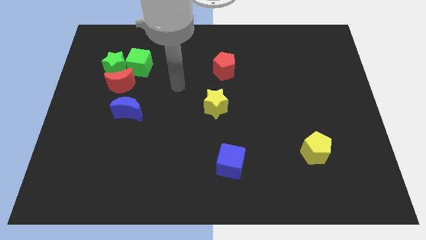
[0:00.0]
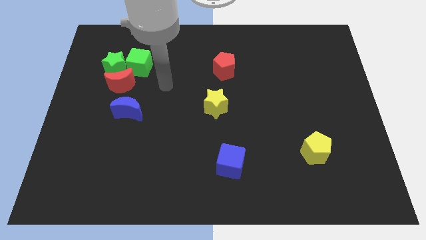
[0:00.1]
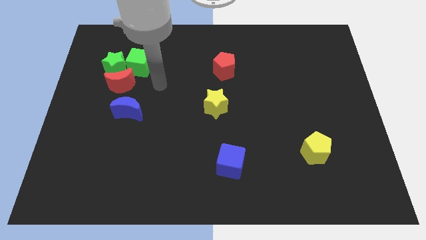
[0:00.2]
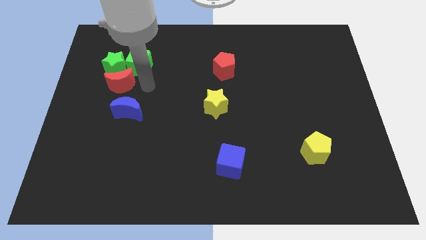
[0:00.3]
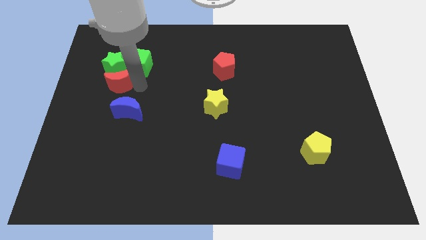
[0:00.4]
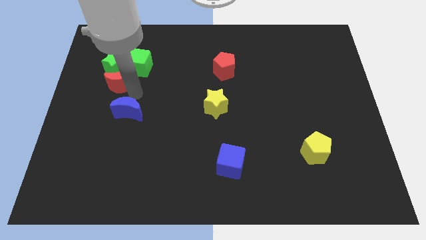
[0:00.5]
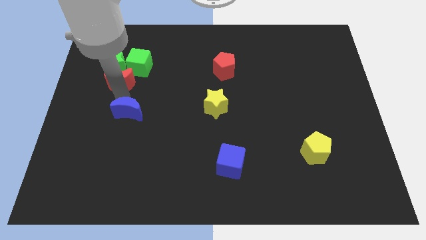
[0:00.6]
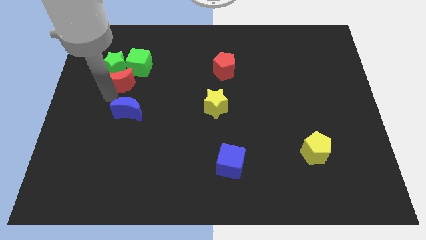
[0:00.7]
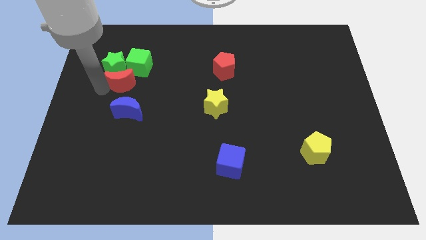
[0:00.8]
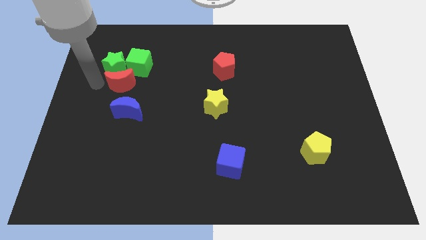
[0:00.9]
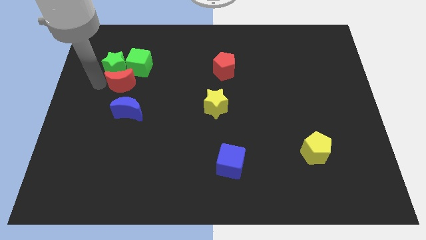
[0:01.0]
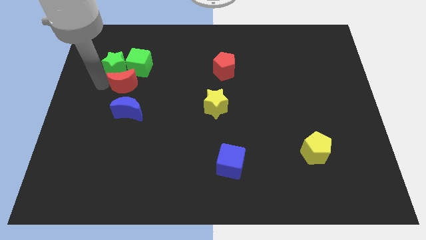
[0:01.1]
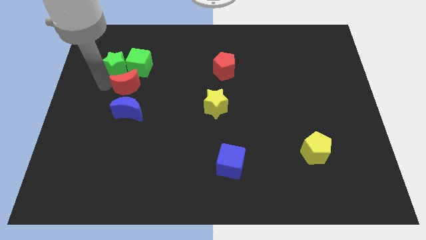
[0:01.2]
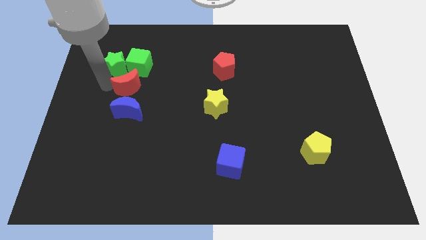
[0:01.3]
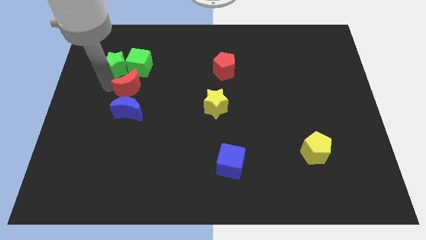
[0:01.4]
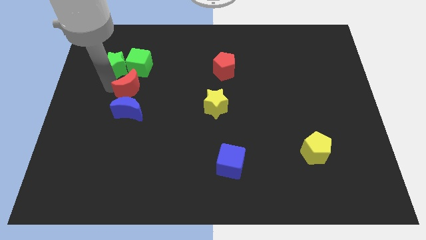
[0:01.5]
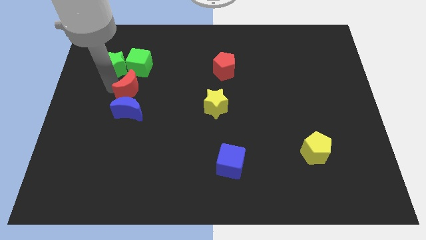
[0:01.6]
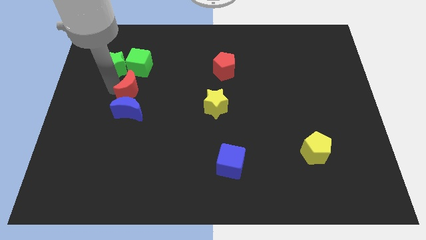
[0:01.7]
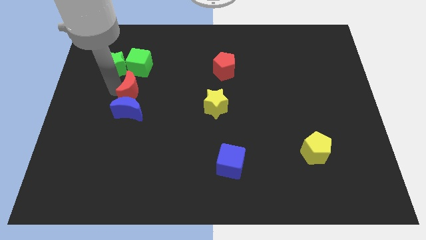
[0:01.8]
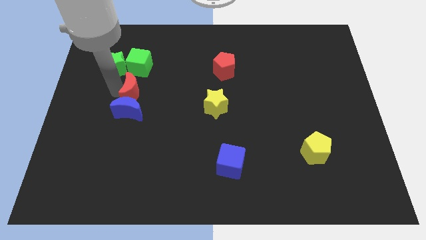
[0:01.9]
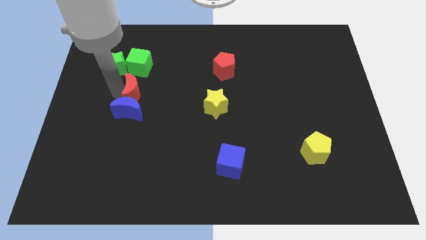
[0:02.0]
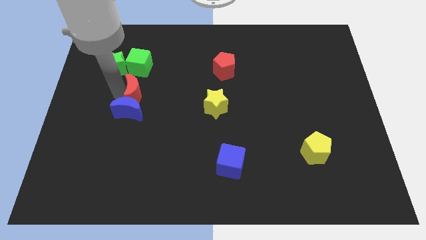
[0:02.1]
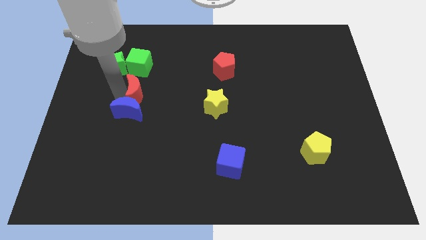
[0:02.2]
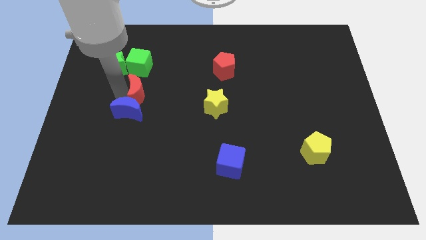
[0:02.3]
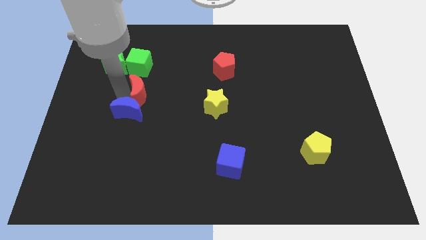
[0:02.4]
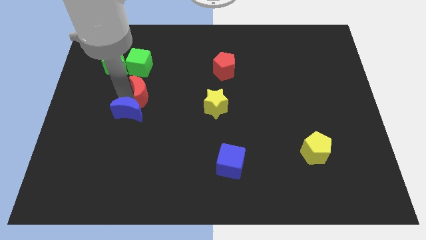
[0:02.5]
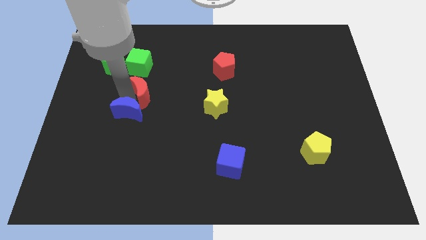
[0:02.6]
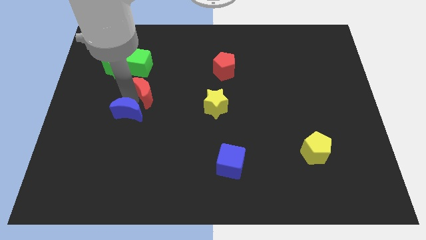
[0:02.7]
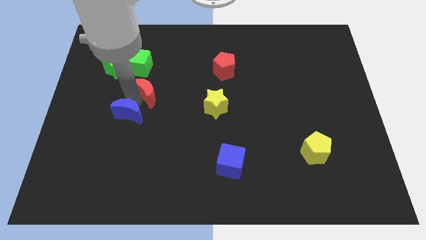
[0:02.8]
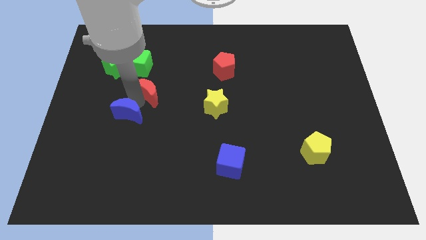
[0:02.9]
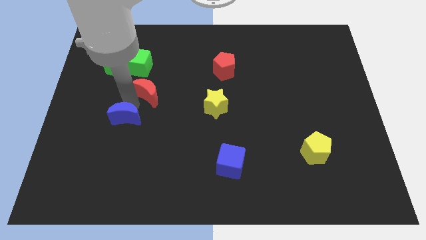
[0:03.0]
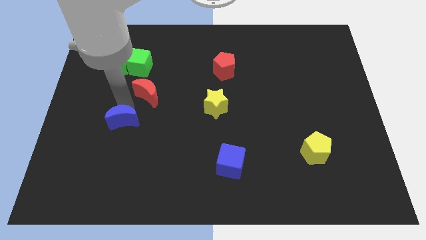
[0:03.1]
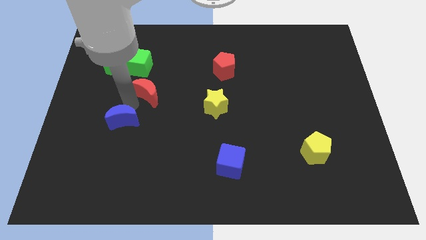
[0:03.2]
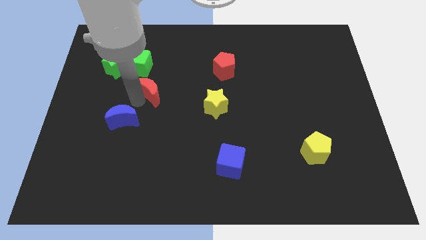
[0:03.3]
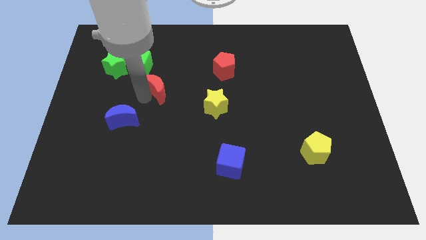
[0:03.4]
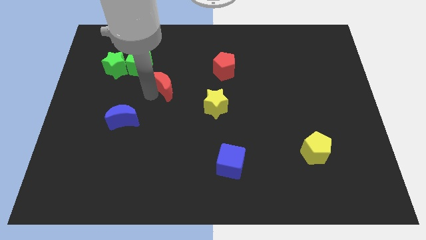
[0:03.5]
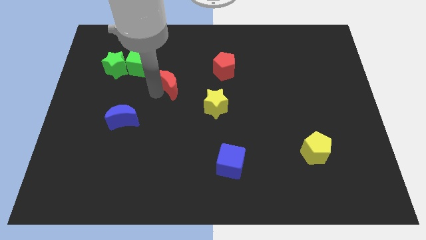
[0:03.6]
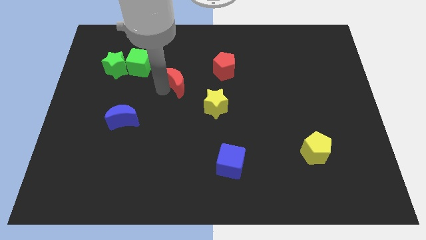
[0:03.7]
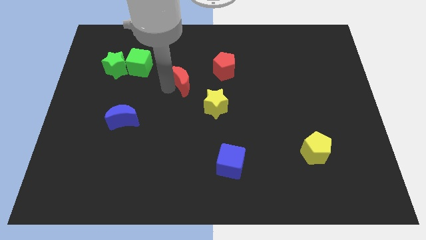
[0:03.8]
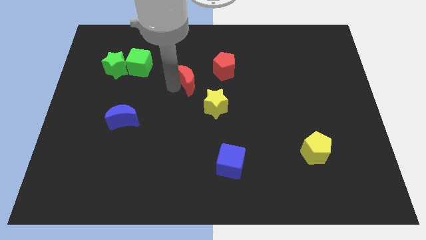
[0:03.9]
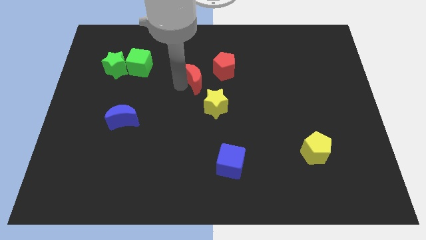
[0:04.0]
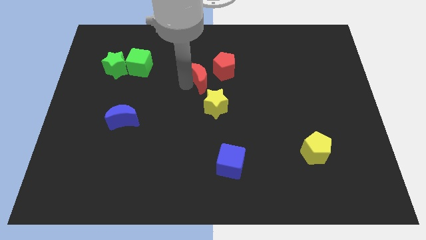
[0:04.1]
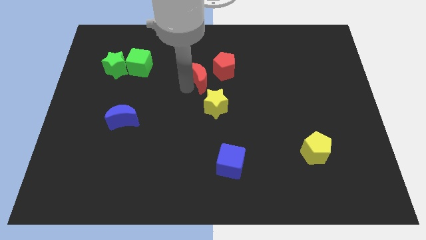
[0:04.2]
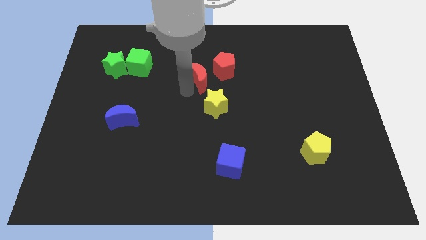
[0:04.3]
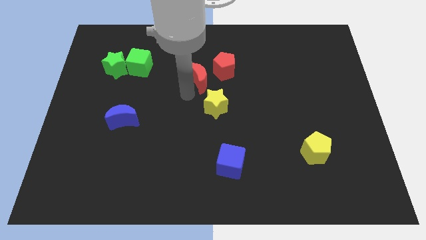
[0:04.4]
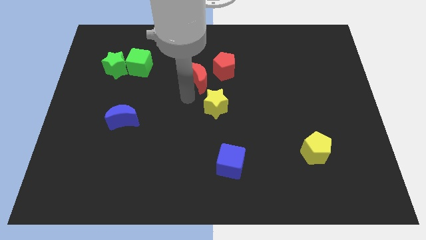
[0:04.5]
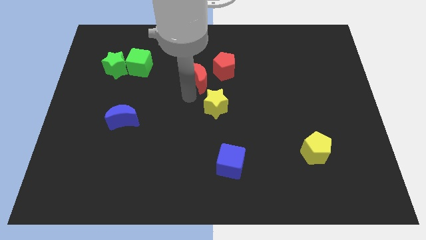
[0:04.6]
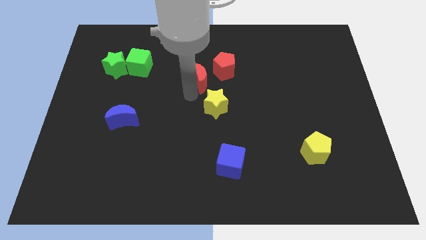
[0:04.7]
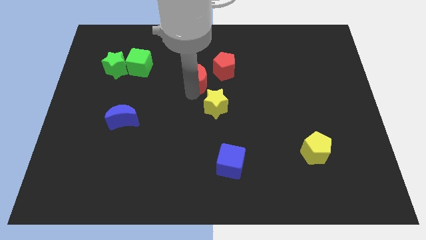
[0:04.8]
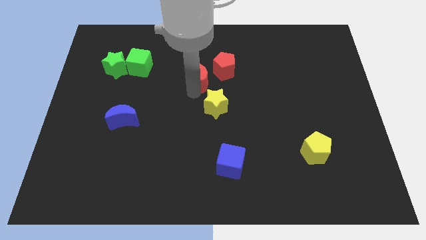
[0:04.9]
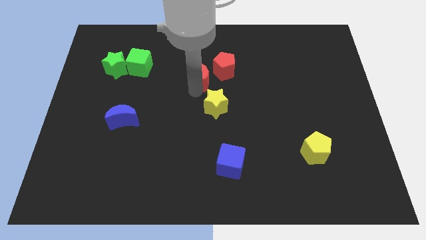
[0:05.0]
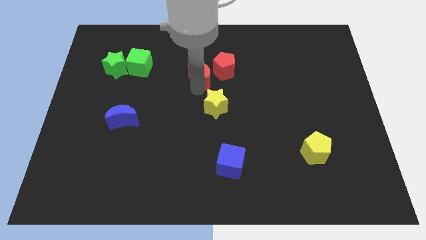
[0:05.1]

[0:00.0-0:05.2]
put the red moon next to the red pentagon

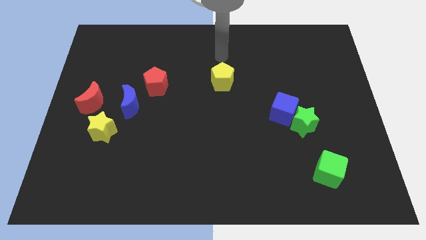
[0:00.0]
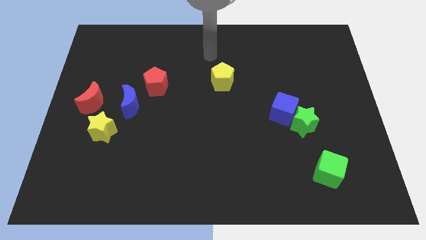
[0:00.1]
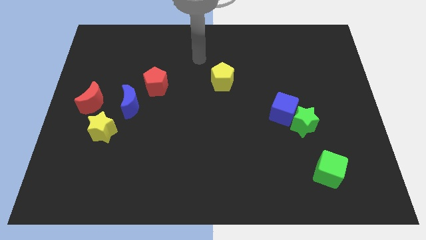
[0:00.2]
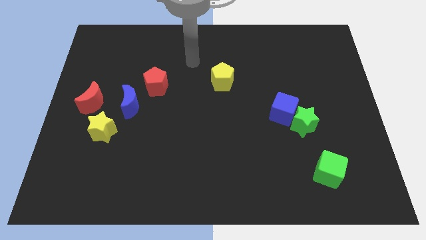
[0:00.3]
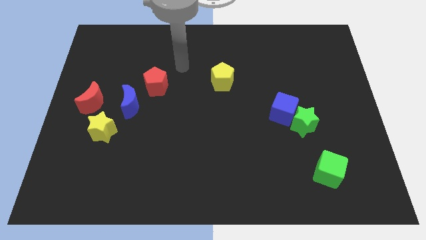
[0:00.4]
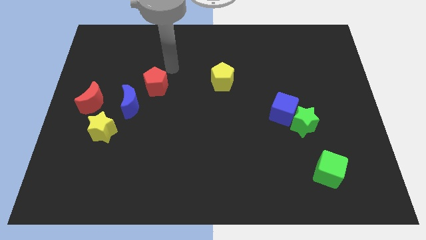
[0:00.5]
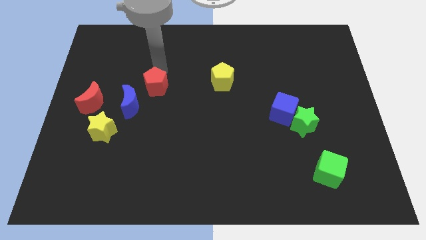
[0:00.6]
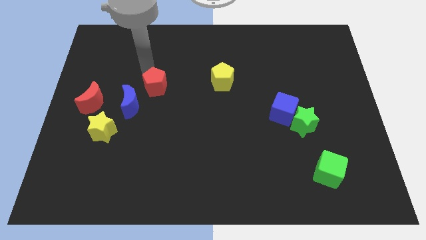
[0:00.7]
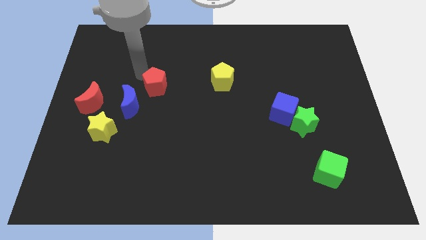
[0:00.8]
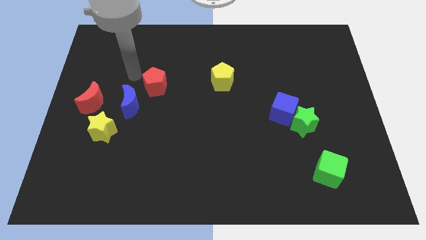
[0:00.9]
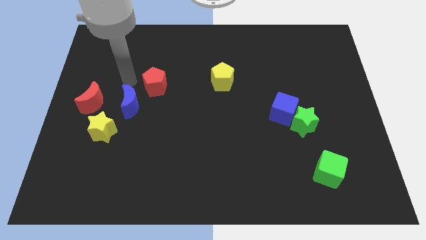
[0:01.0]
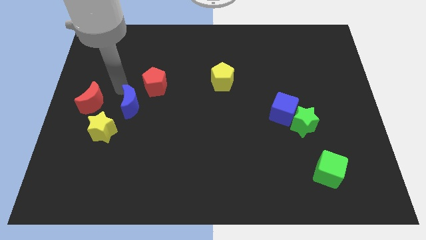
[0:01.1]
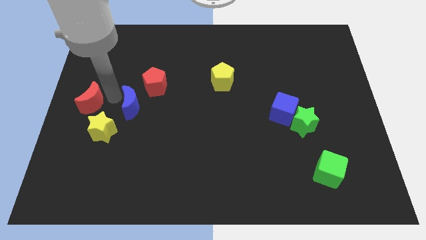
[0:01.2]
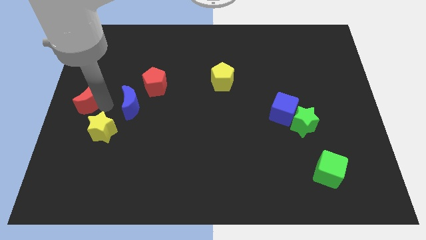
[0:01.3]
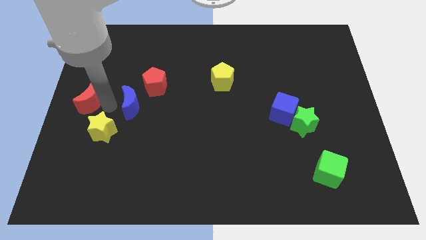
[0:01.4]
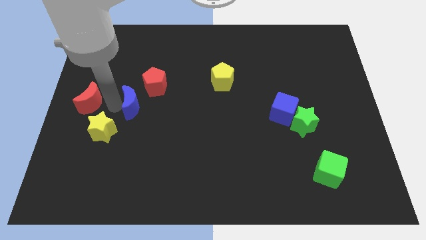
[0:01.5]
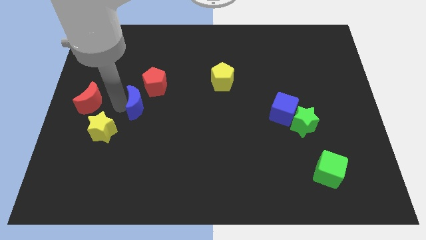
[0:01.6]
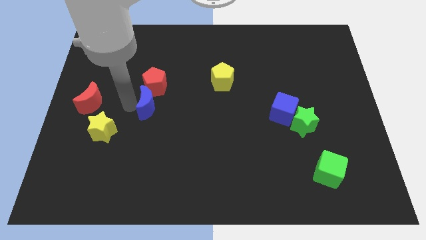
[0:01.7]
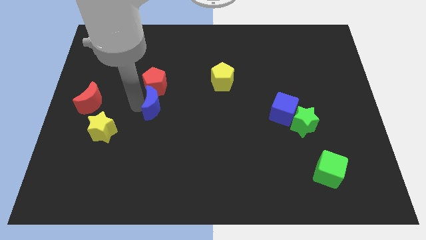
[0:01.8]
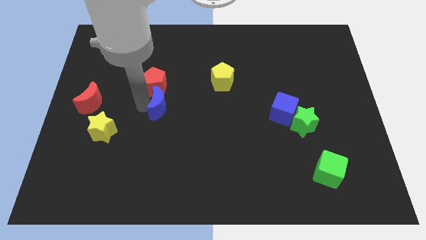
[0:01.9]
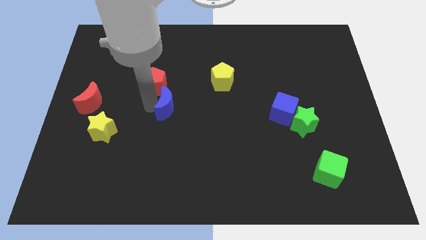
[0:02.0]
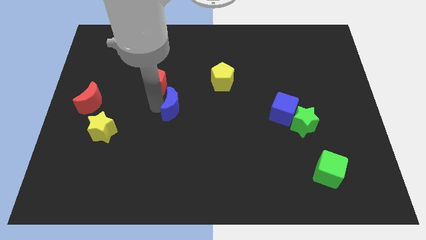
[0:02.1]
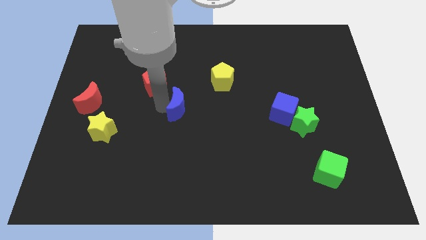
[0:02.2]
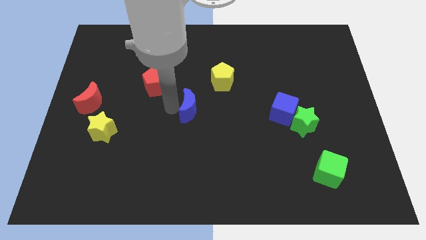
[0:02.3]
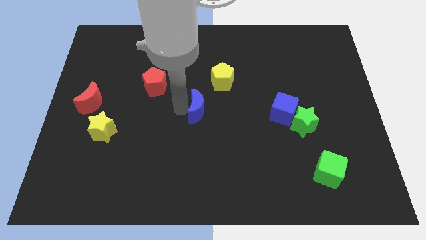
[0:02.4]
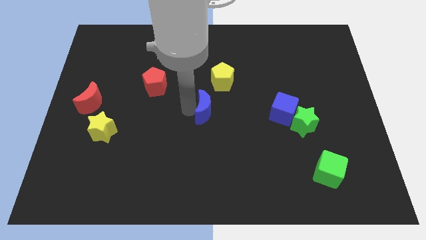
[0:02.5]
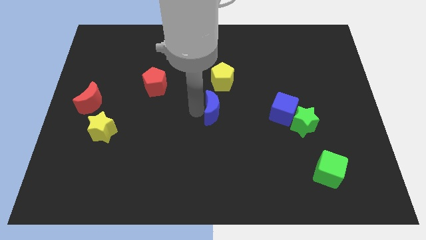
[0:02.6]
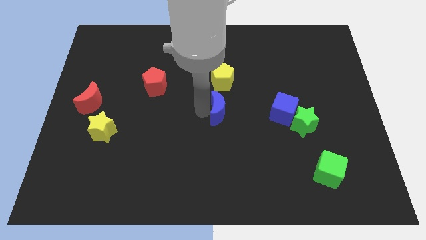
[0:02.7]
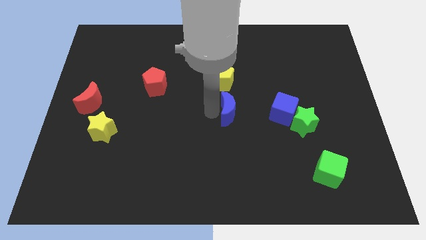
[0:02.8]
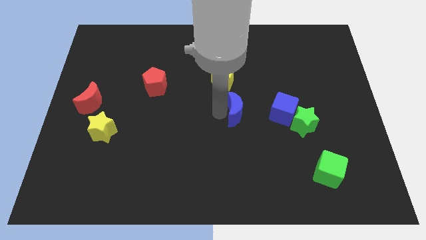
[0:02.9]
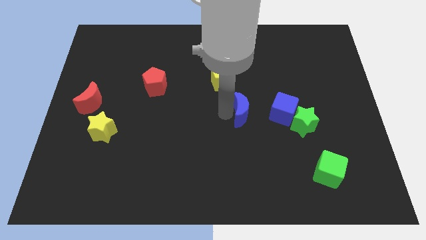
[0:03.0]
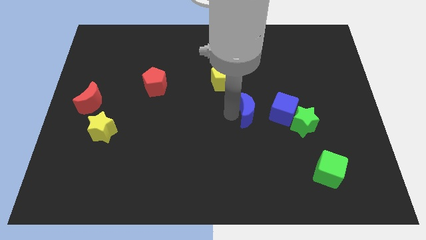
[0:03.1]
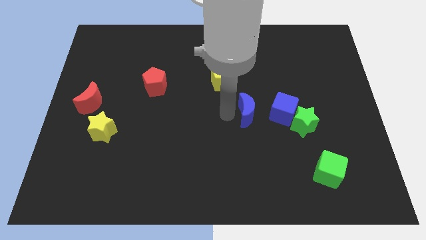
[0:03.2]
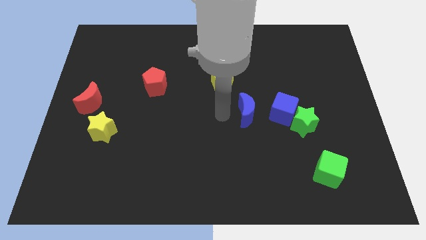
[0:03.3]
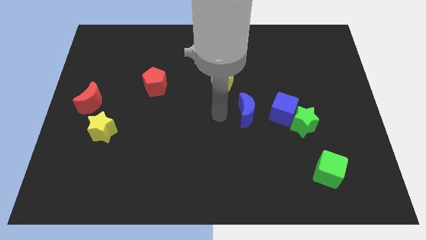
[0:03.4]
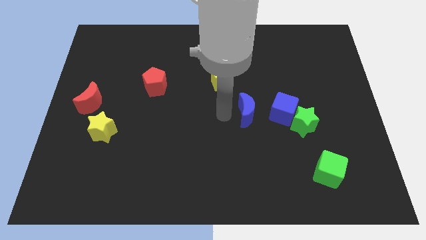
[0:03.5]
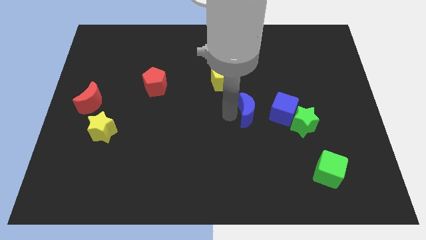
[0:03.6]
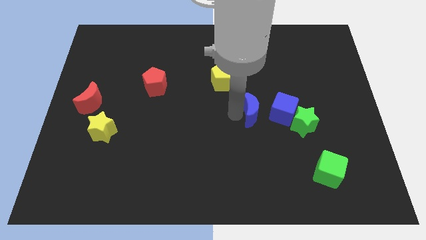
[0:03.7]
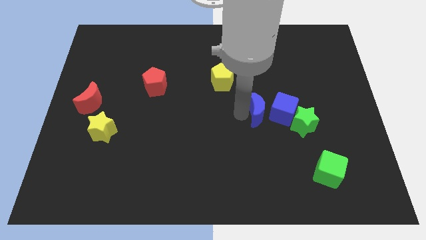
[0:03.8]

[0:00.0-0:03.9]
put the blue moon next to the blue cube
